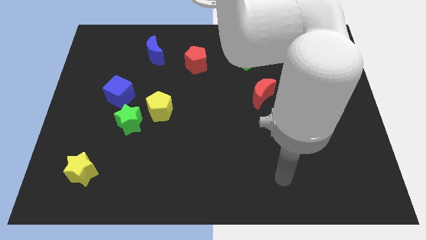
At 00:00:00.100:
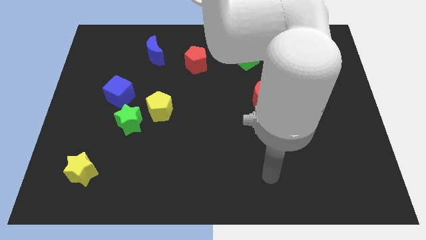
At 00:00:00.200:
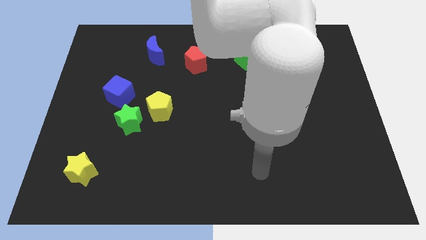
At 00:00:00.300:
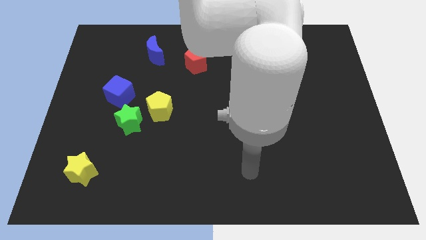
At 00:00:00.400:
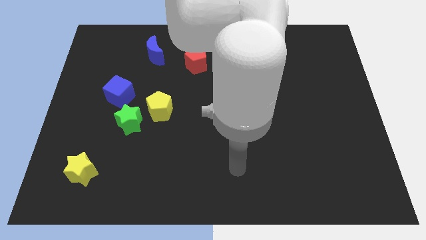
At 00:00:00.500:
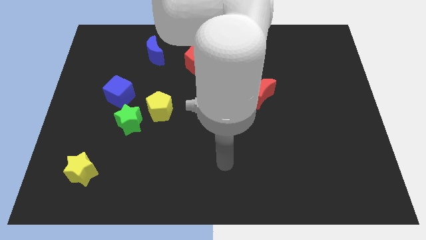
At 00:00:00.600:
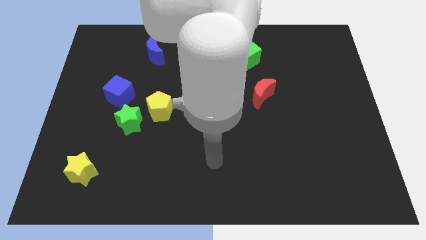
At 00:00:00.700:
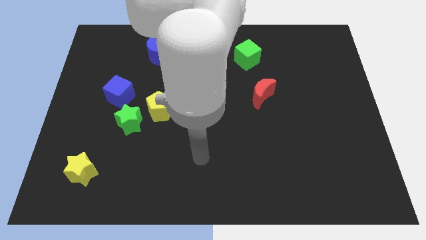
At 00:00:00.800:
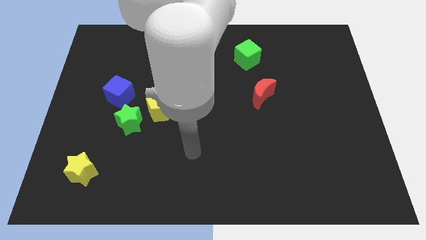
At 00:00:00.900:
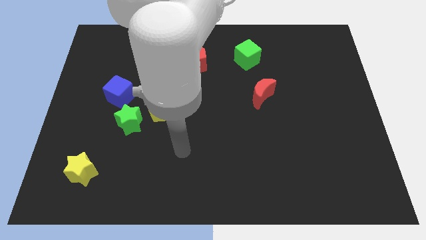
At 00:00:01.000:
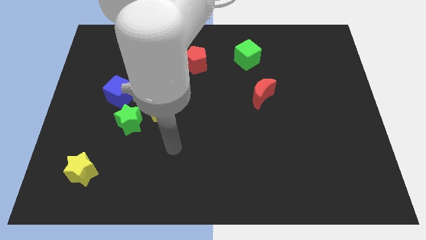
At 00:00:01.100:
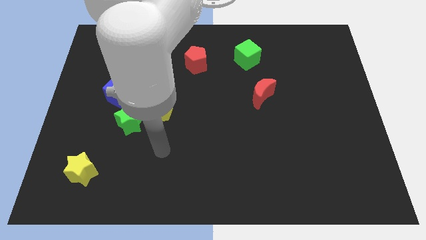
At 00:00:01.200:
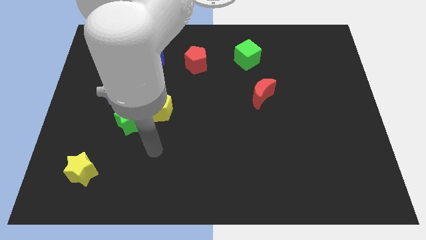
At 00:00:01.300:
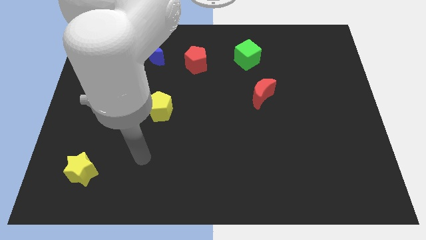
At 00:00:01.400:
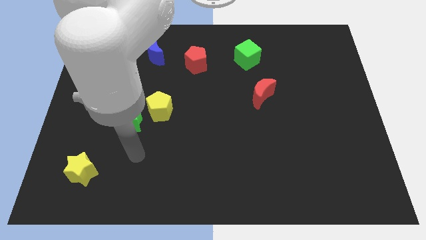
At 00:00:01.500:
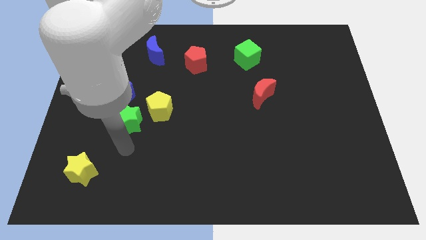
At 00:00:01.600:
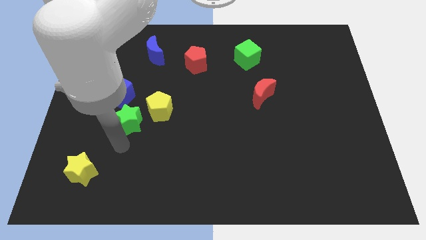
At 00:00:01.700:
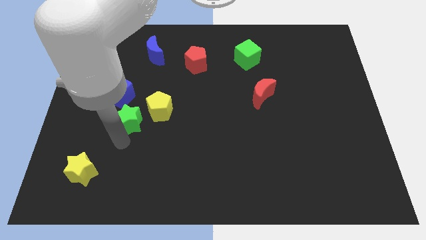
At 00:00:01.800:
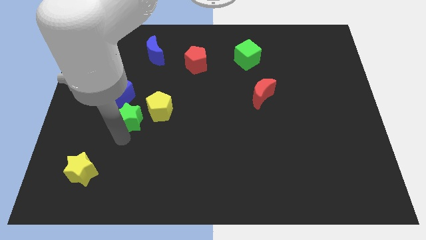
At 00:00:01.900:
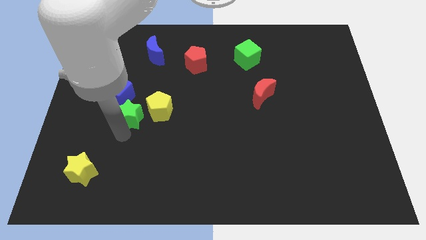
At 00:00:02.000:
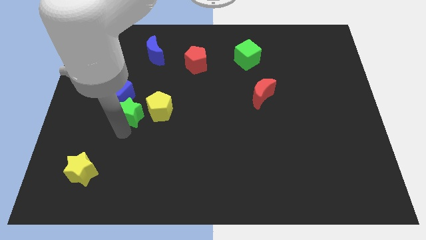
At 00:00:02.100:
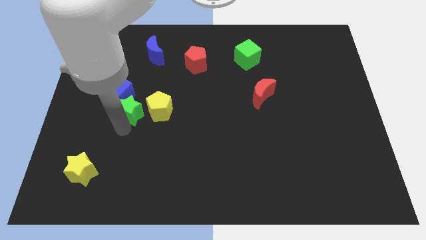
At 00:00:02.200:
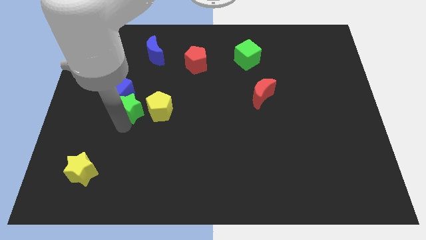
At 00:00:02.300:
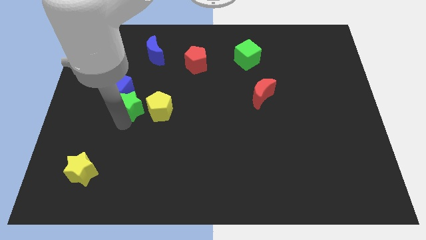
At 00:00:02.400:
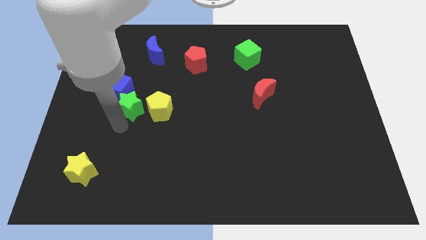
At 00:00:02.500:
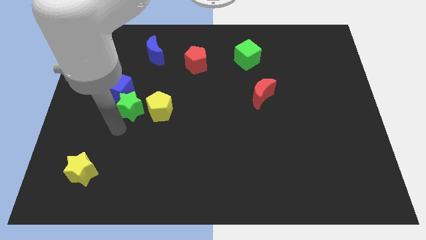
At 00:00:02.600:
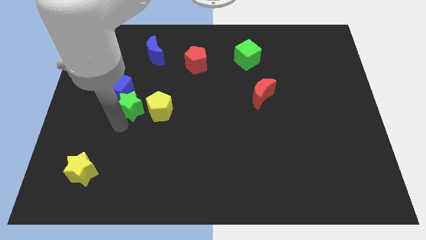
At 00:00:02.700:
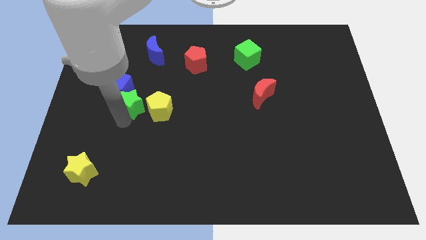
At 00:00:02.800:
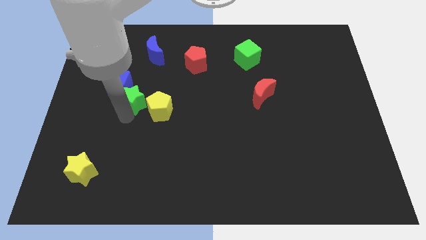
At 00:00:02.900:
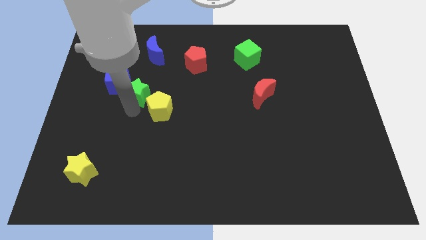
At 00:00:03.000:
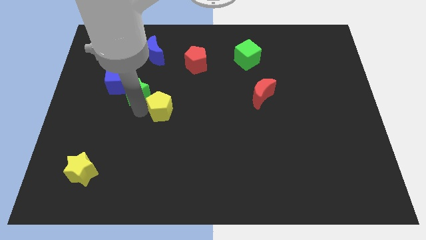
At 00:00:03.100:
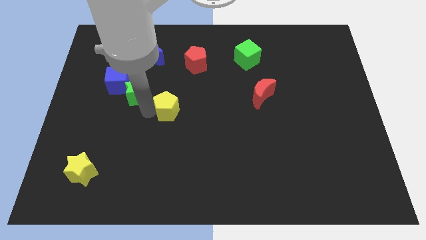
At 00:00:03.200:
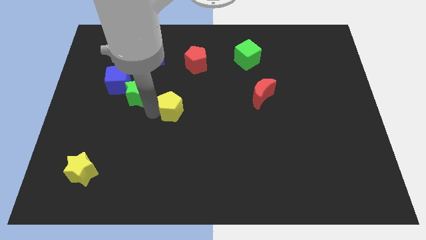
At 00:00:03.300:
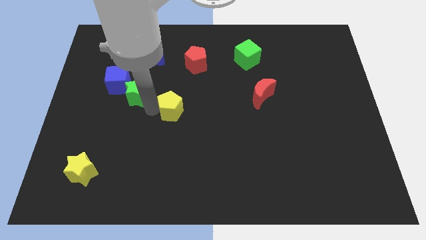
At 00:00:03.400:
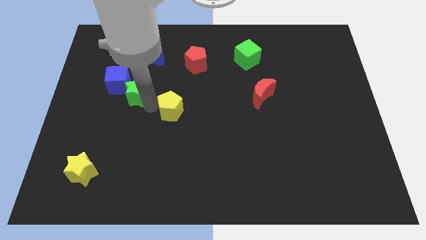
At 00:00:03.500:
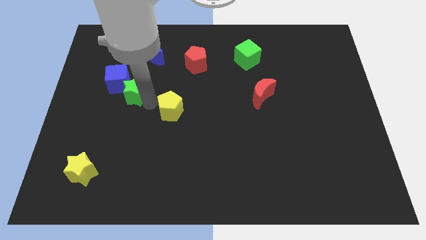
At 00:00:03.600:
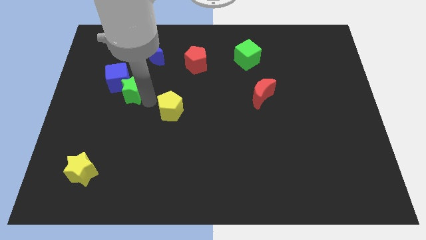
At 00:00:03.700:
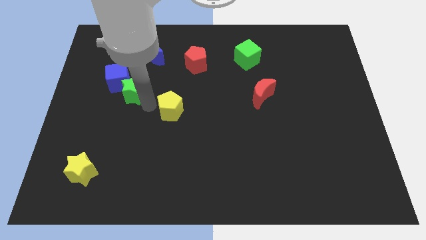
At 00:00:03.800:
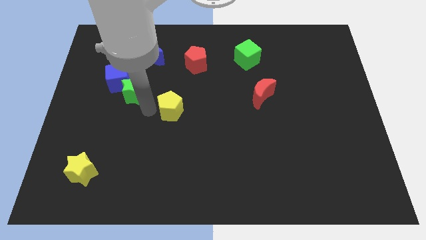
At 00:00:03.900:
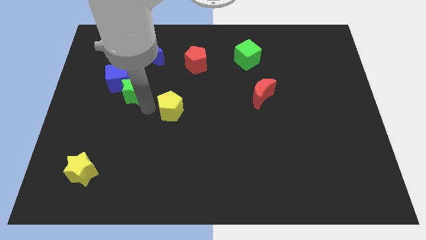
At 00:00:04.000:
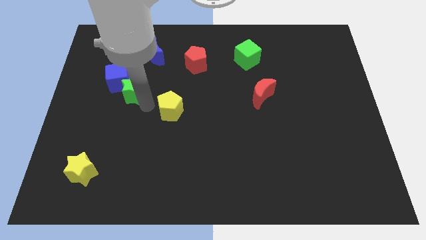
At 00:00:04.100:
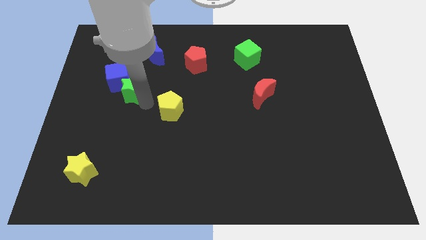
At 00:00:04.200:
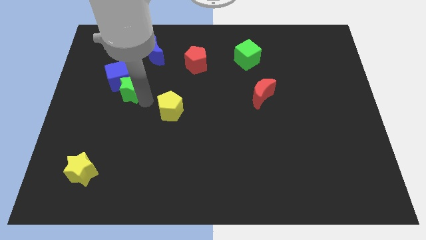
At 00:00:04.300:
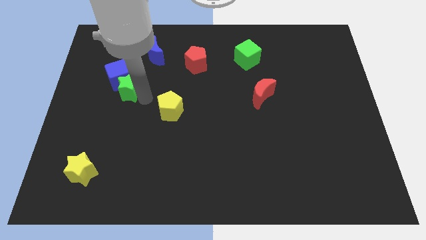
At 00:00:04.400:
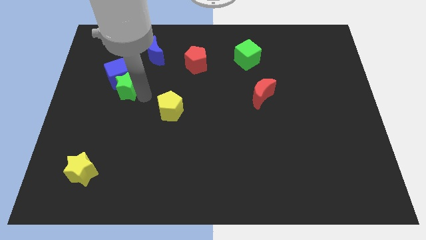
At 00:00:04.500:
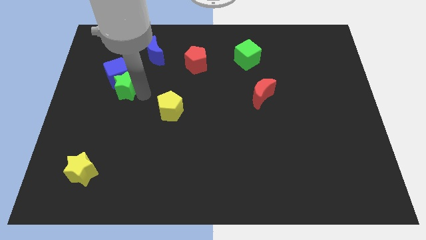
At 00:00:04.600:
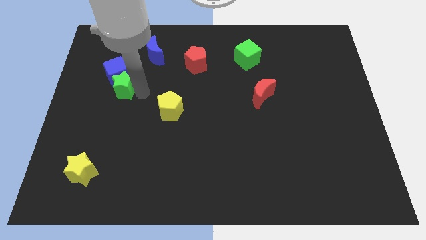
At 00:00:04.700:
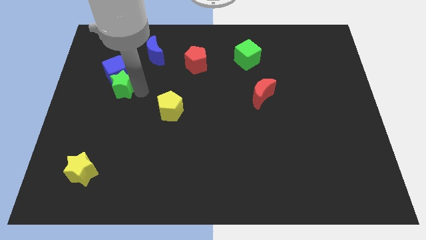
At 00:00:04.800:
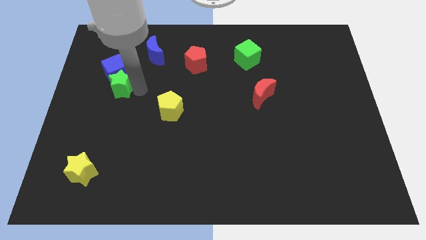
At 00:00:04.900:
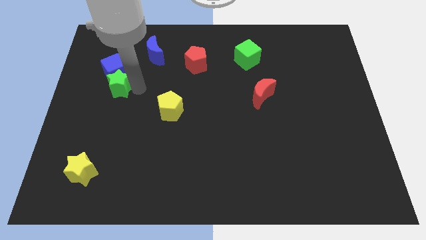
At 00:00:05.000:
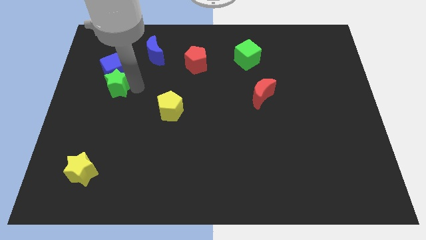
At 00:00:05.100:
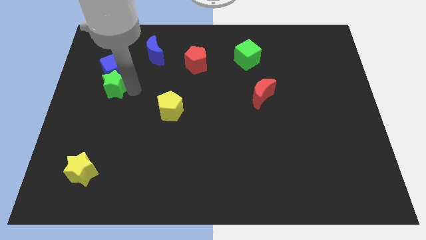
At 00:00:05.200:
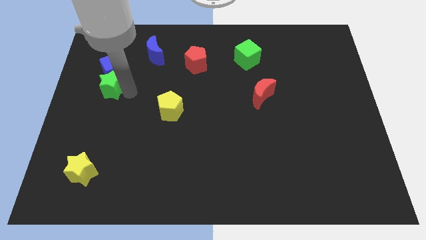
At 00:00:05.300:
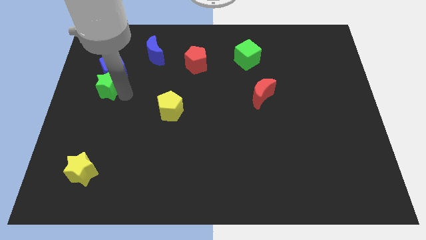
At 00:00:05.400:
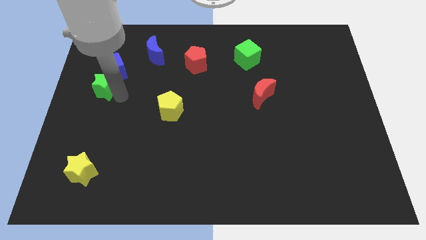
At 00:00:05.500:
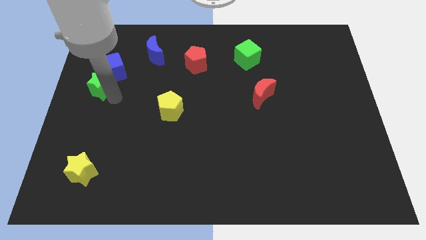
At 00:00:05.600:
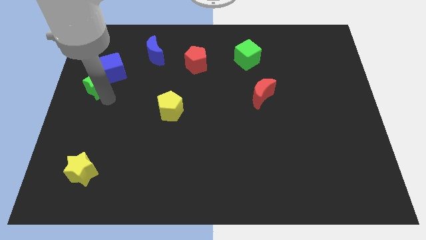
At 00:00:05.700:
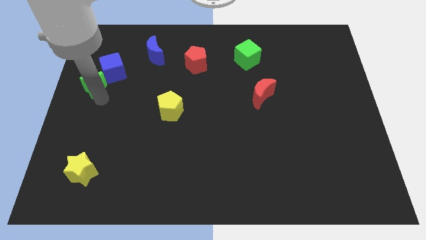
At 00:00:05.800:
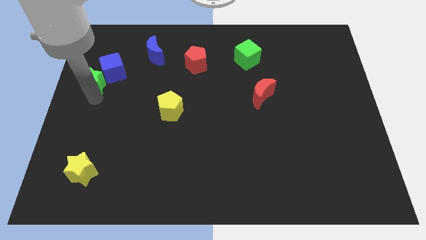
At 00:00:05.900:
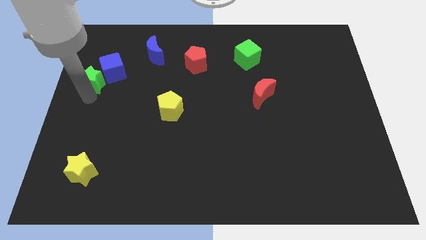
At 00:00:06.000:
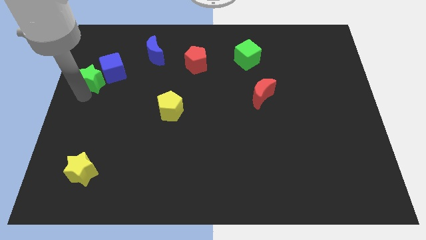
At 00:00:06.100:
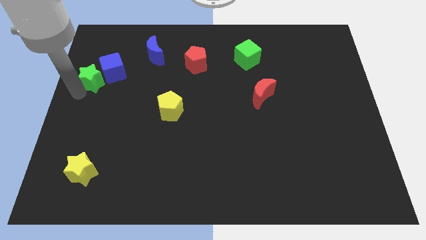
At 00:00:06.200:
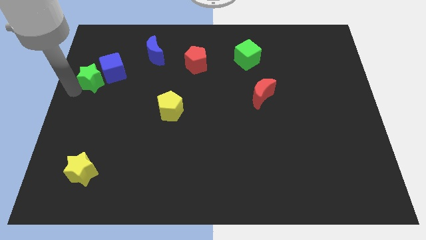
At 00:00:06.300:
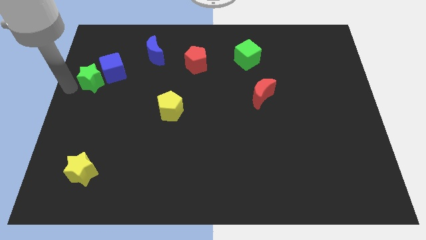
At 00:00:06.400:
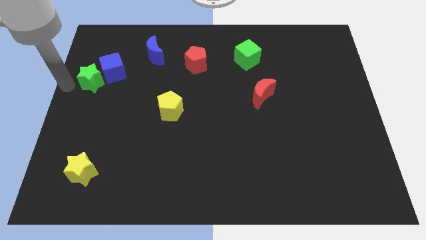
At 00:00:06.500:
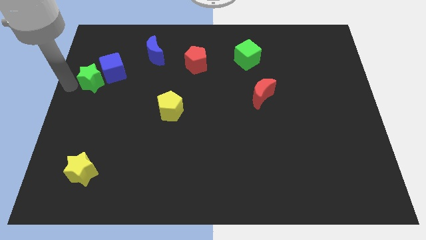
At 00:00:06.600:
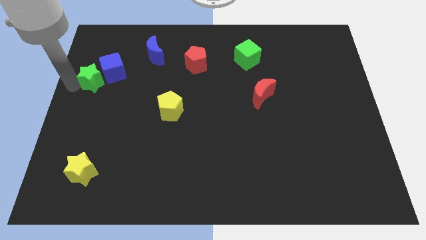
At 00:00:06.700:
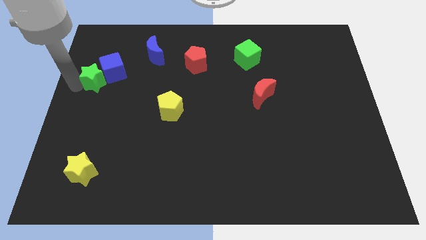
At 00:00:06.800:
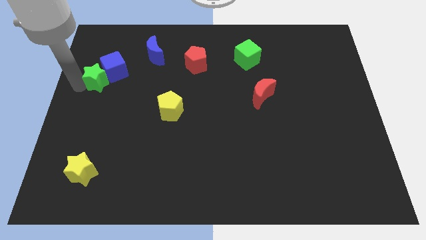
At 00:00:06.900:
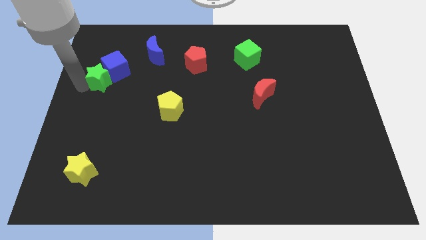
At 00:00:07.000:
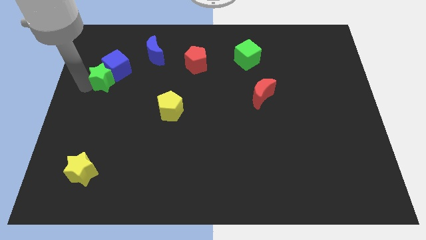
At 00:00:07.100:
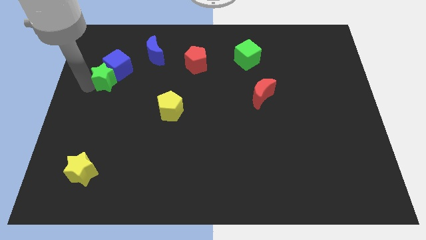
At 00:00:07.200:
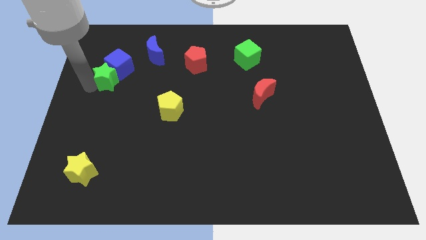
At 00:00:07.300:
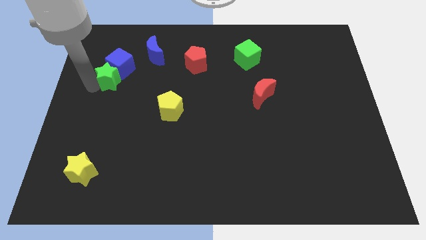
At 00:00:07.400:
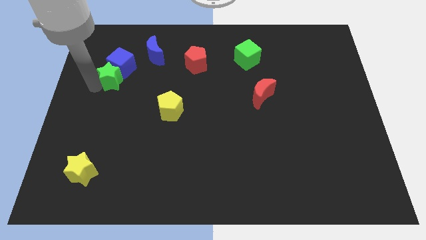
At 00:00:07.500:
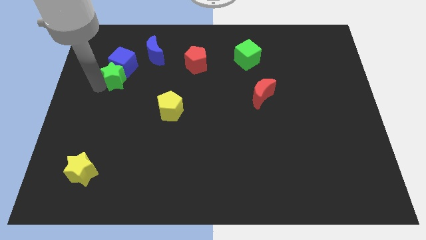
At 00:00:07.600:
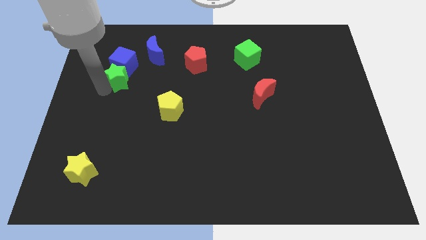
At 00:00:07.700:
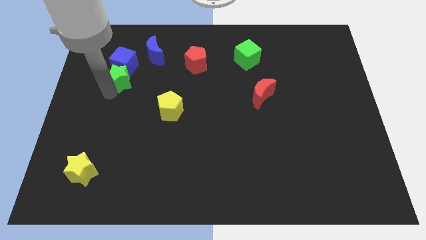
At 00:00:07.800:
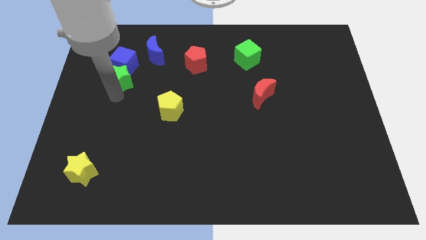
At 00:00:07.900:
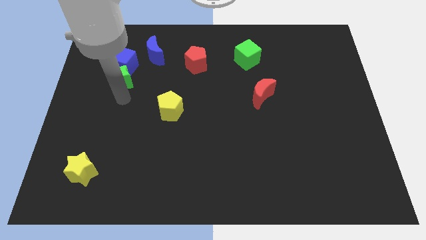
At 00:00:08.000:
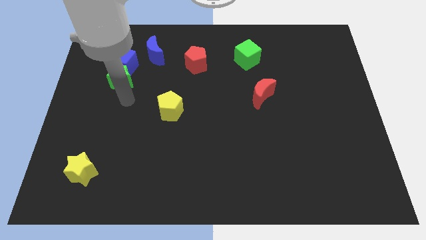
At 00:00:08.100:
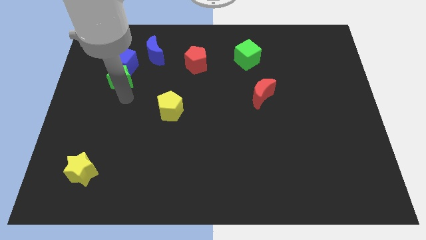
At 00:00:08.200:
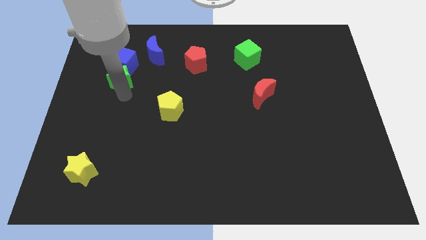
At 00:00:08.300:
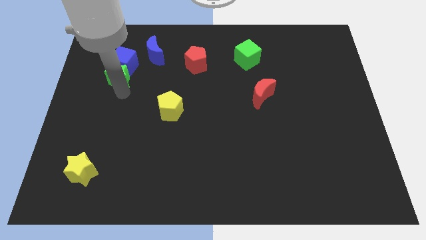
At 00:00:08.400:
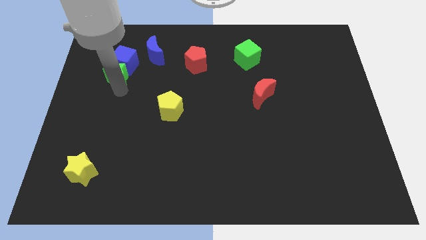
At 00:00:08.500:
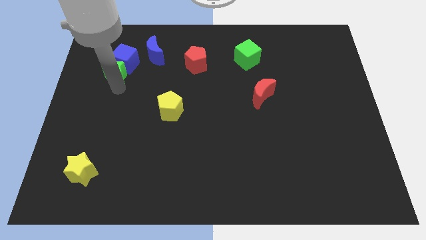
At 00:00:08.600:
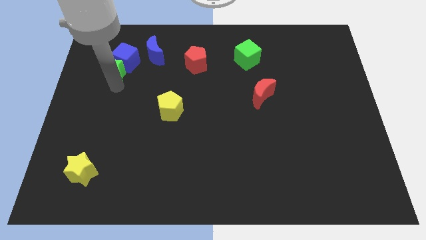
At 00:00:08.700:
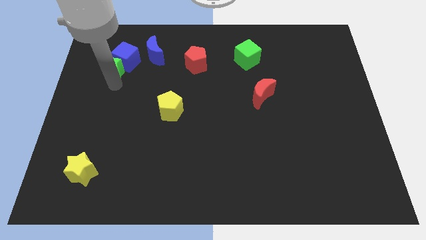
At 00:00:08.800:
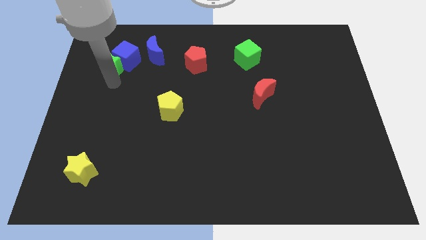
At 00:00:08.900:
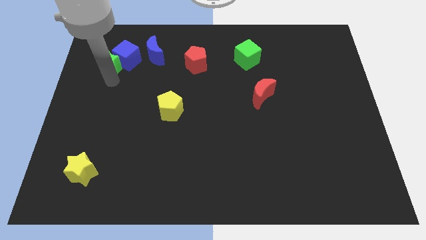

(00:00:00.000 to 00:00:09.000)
move the green star left of the blue moon
